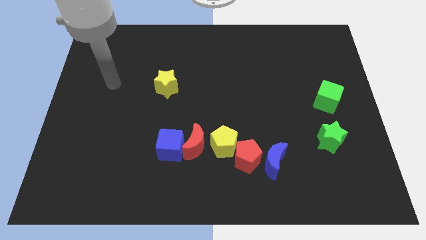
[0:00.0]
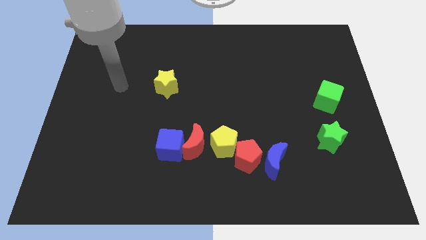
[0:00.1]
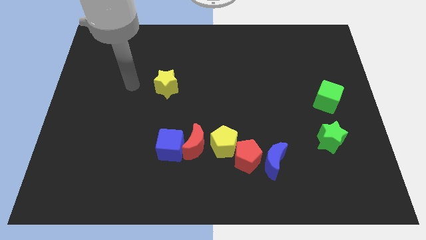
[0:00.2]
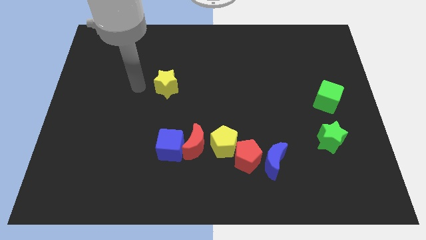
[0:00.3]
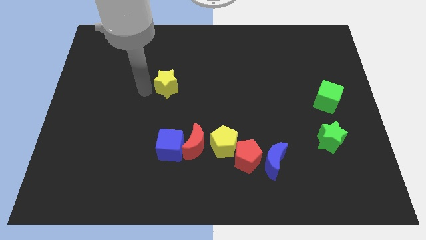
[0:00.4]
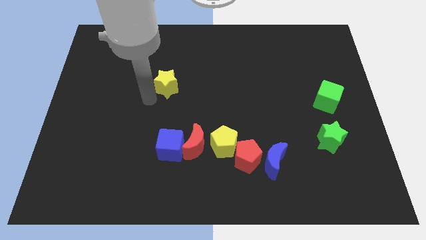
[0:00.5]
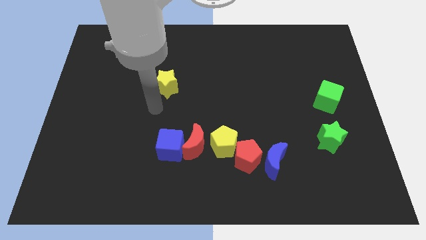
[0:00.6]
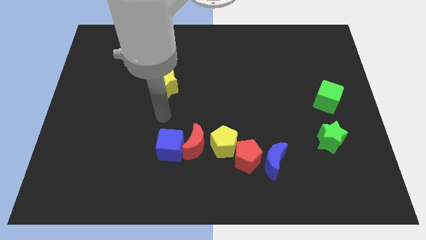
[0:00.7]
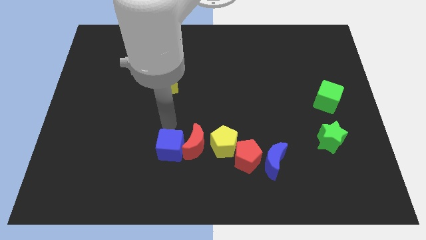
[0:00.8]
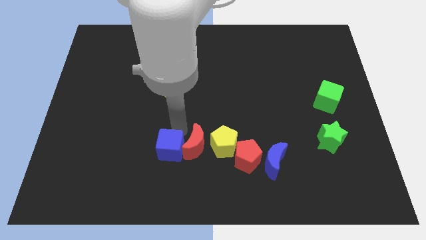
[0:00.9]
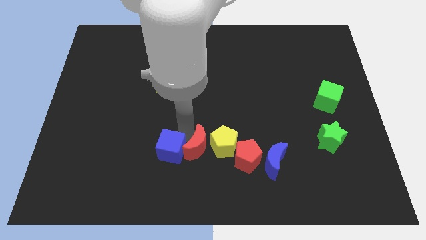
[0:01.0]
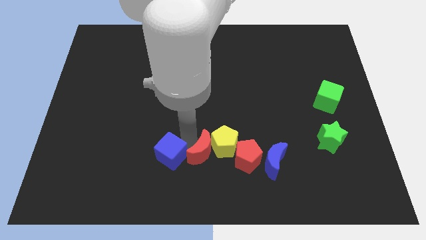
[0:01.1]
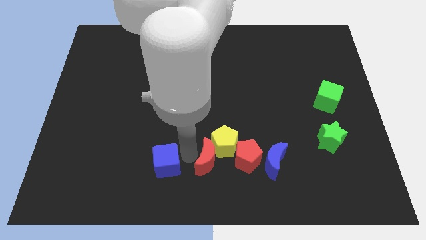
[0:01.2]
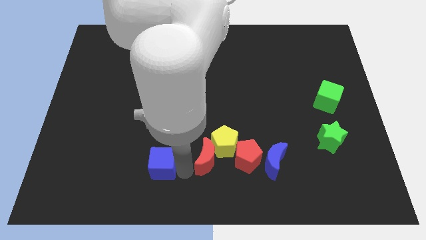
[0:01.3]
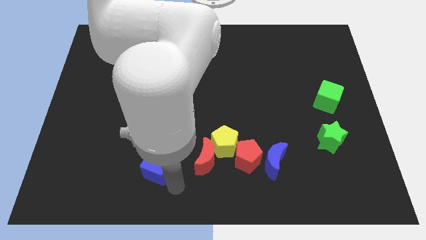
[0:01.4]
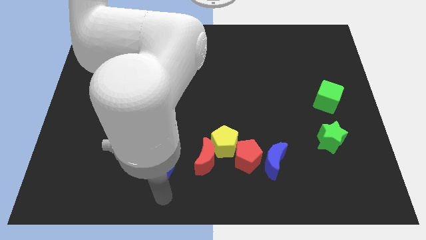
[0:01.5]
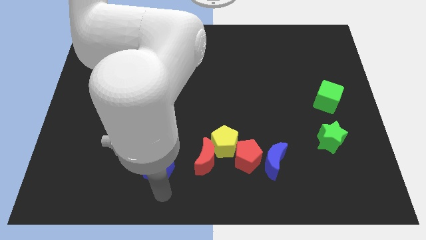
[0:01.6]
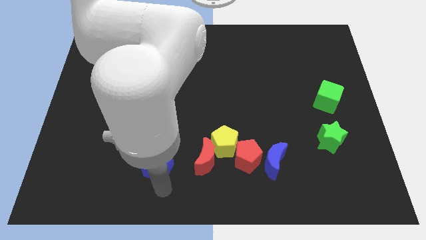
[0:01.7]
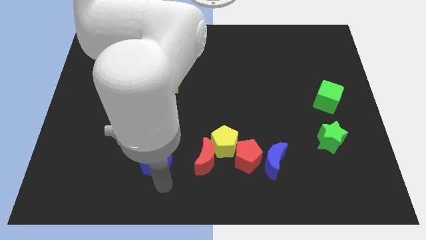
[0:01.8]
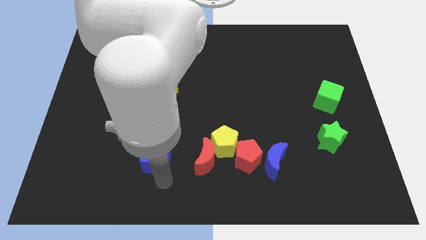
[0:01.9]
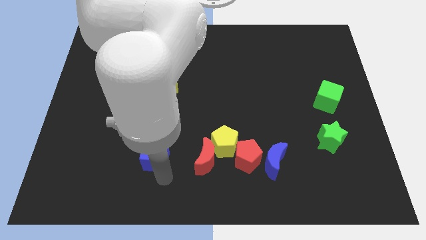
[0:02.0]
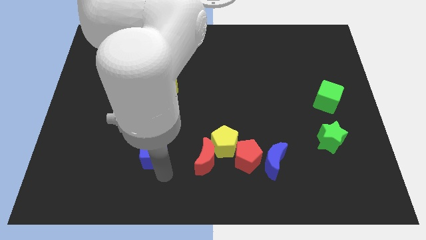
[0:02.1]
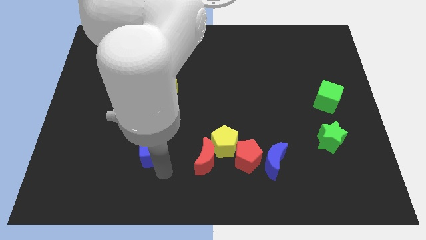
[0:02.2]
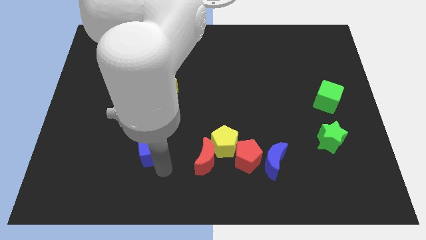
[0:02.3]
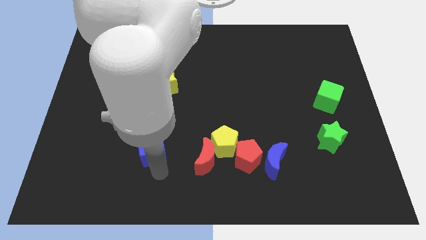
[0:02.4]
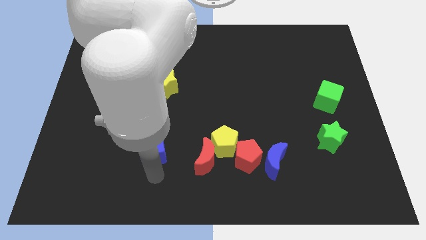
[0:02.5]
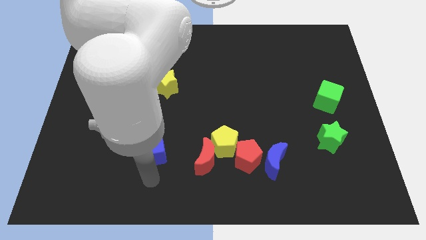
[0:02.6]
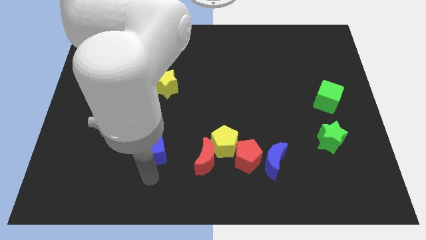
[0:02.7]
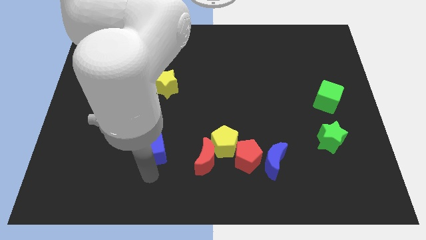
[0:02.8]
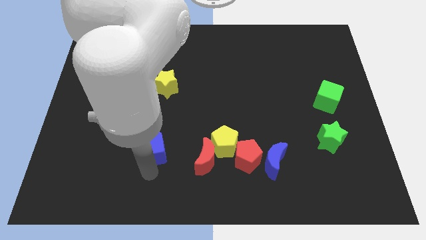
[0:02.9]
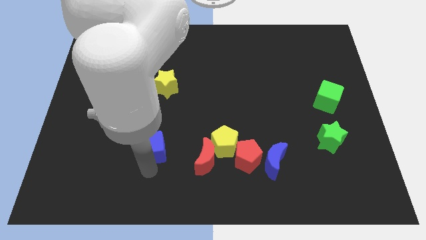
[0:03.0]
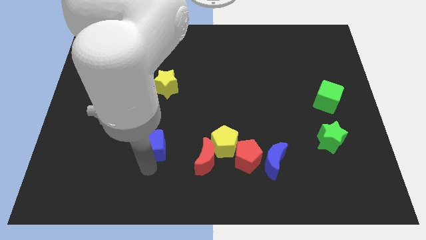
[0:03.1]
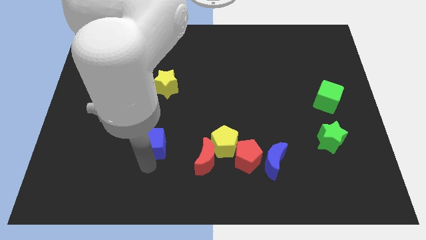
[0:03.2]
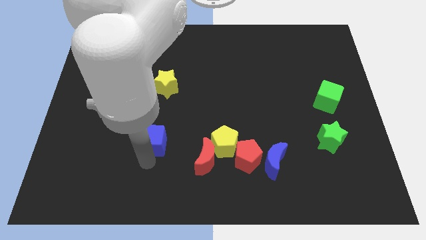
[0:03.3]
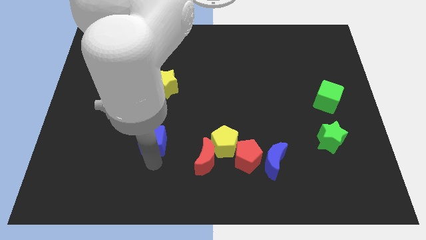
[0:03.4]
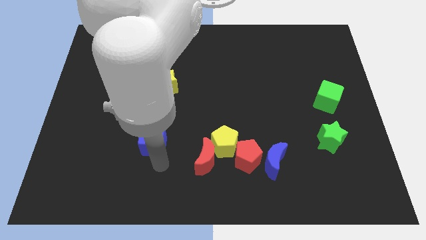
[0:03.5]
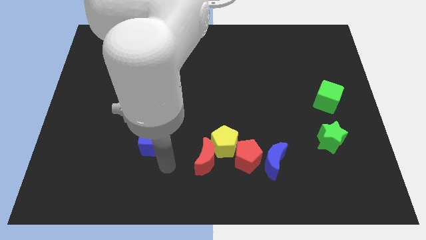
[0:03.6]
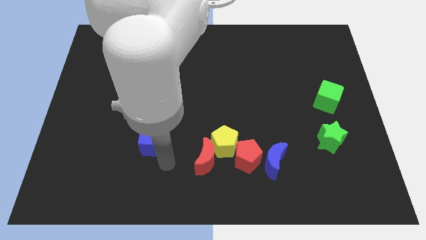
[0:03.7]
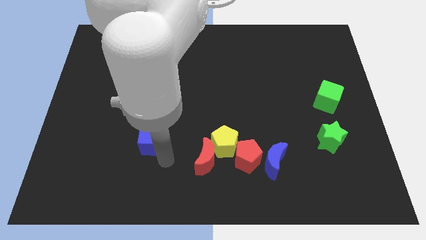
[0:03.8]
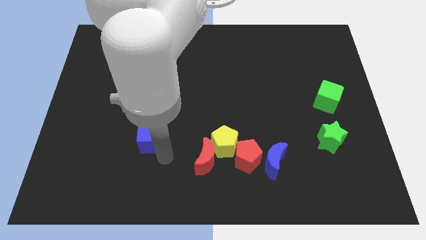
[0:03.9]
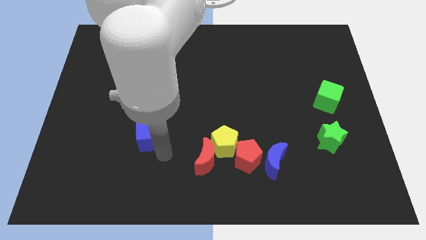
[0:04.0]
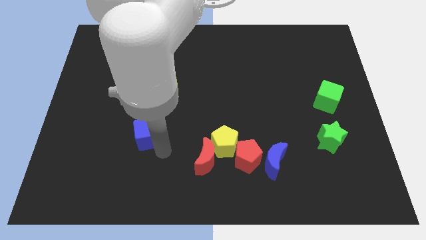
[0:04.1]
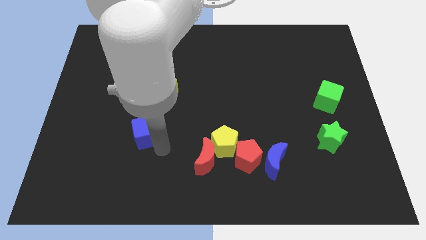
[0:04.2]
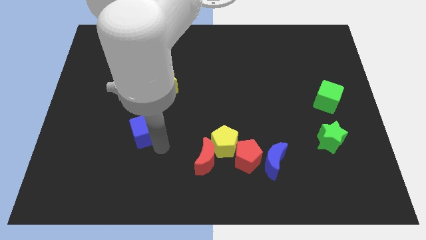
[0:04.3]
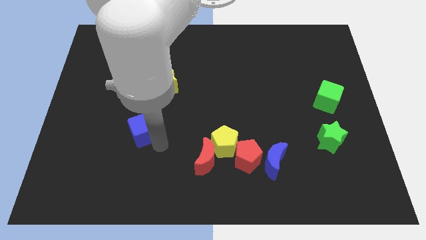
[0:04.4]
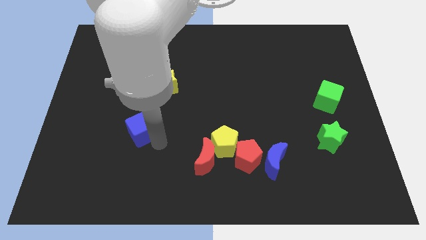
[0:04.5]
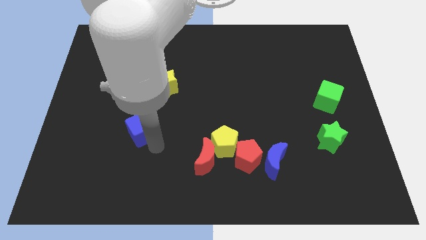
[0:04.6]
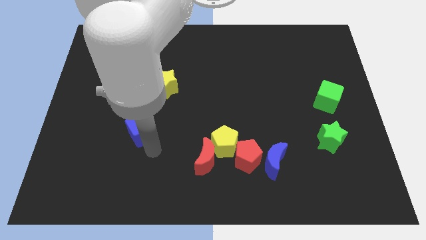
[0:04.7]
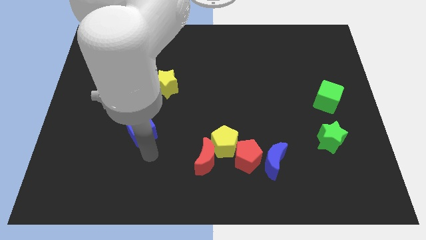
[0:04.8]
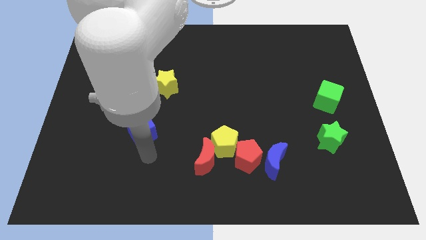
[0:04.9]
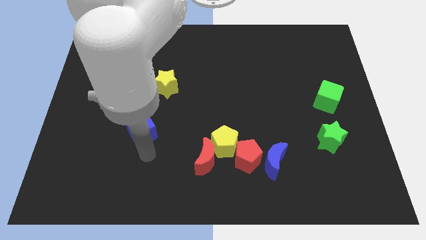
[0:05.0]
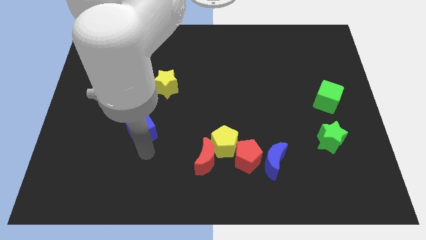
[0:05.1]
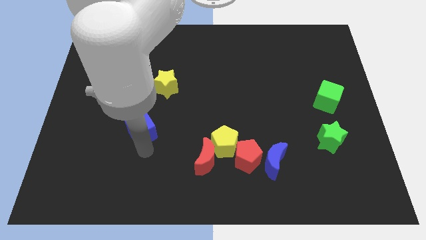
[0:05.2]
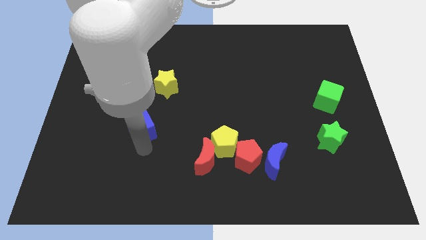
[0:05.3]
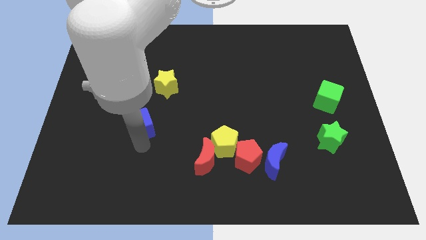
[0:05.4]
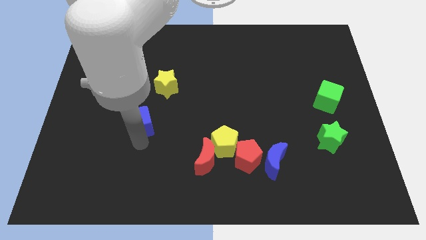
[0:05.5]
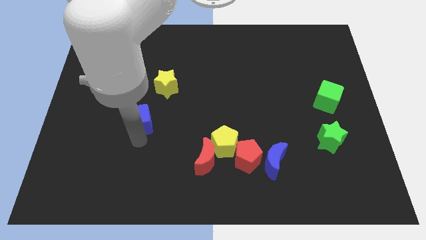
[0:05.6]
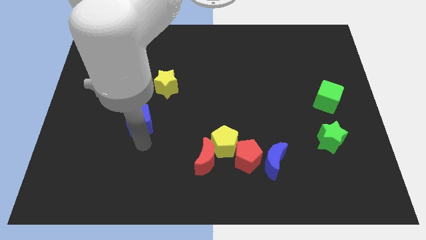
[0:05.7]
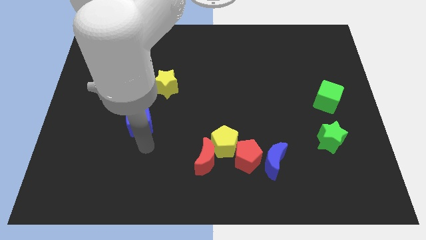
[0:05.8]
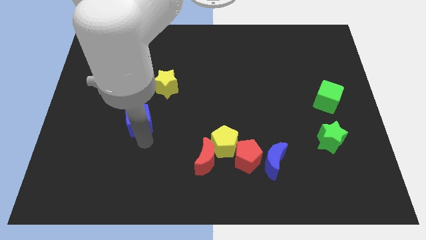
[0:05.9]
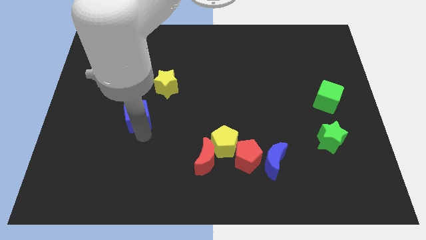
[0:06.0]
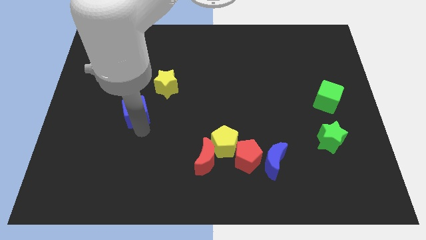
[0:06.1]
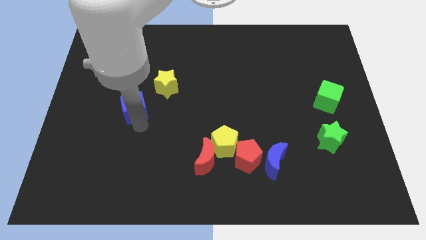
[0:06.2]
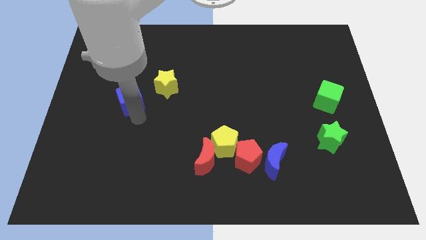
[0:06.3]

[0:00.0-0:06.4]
slide the blue cube just left of the yellow star

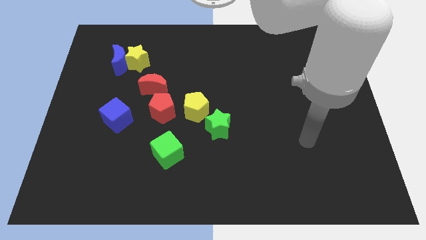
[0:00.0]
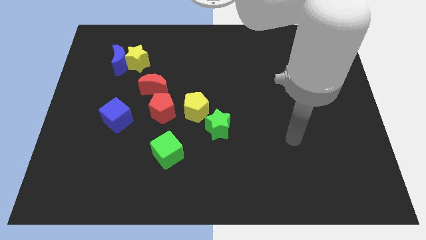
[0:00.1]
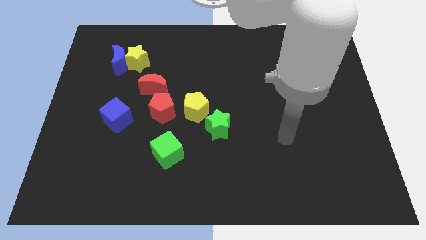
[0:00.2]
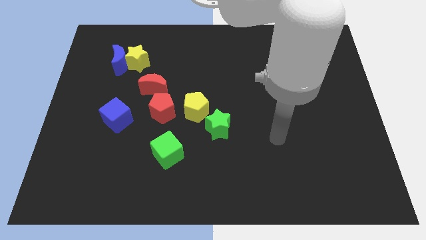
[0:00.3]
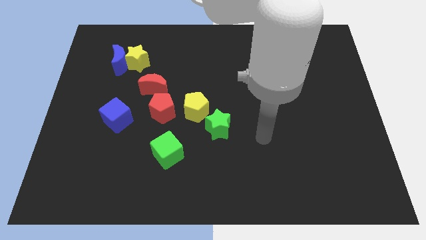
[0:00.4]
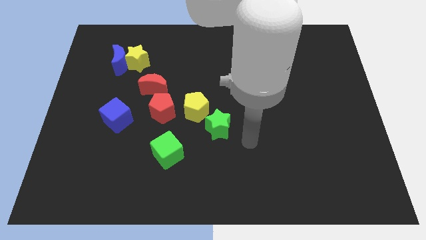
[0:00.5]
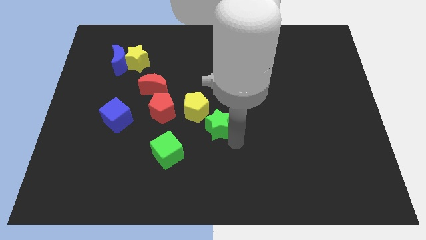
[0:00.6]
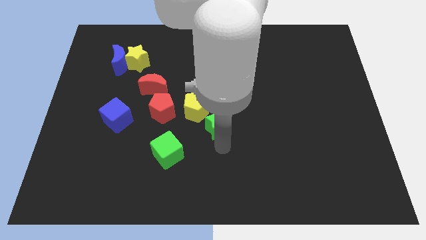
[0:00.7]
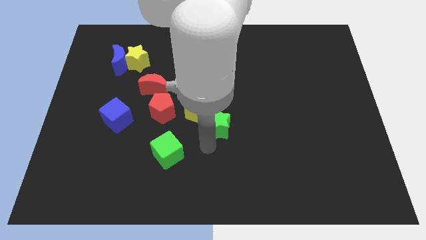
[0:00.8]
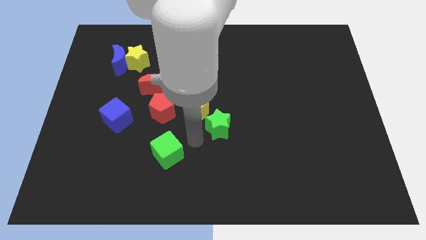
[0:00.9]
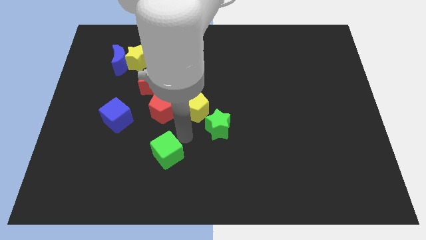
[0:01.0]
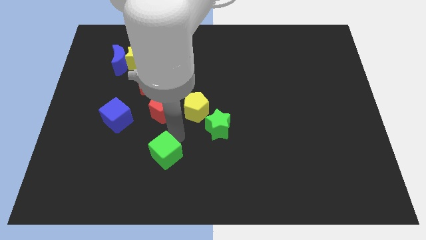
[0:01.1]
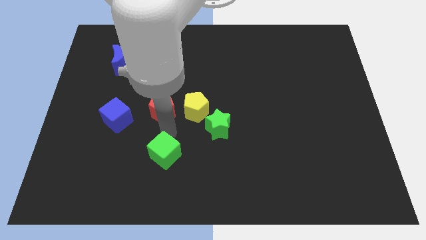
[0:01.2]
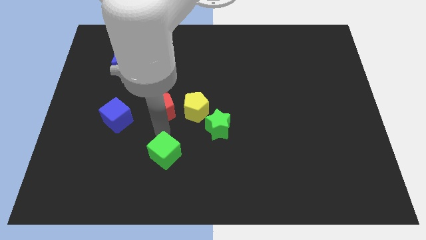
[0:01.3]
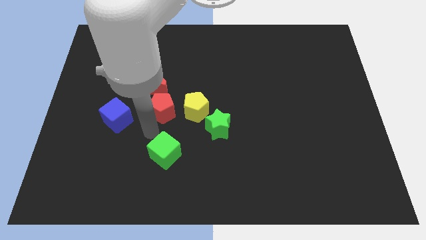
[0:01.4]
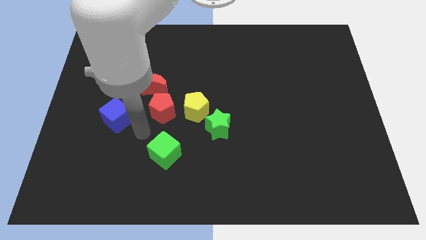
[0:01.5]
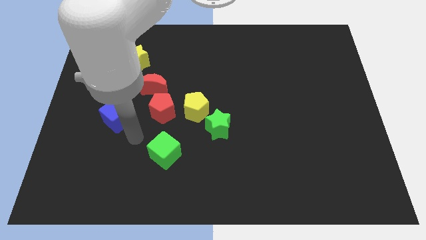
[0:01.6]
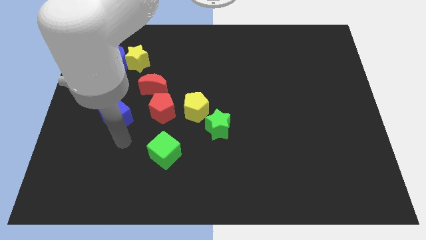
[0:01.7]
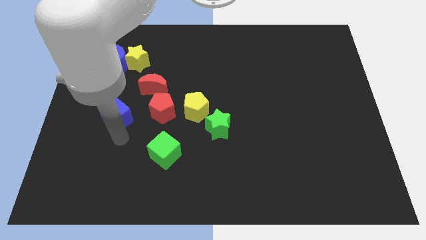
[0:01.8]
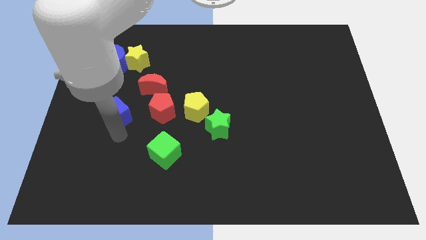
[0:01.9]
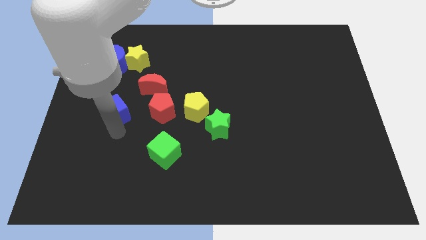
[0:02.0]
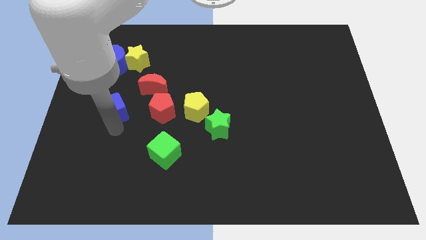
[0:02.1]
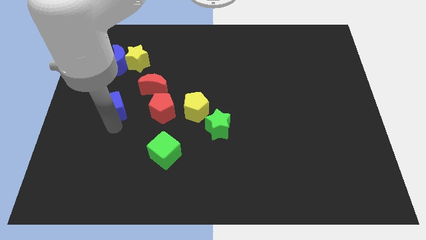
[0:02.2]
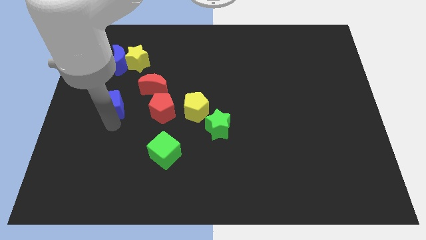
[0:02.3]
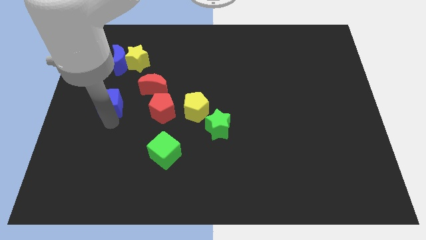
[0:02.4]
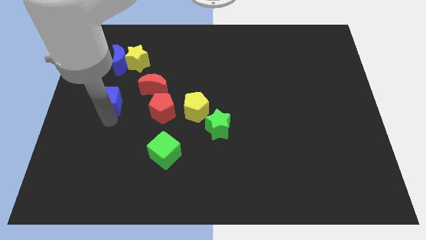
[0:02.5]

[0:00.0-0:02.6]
push the blue cube just left of the red moon
